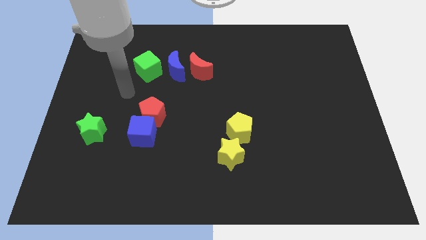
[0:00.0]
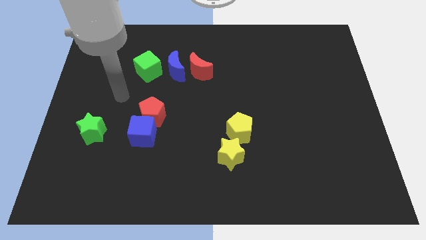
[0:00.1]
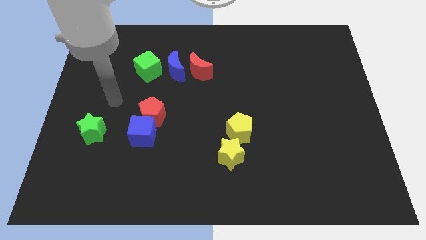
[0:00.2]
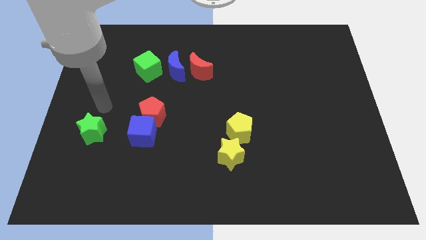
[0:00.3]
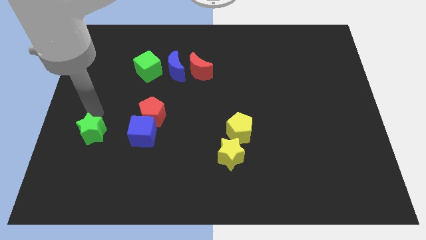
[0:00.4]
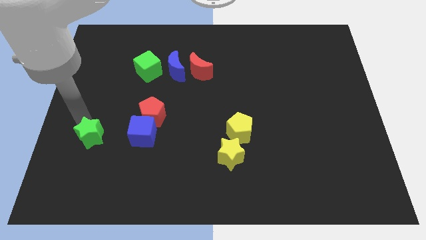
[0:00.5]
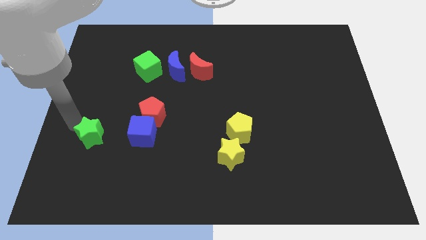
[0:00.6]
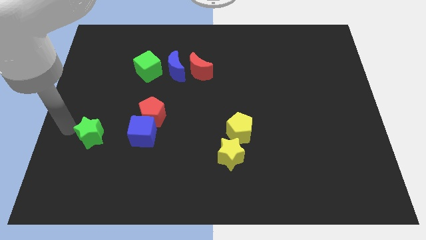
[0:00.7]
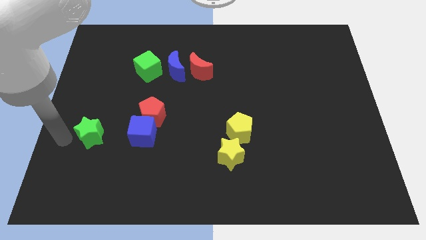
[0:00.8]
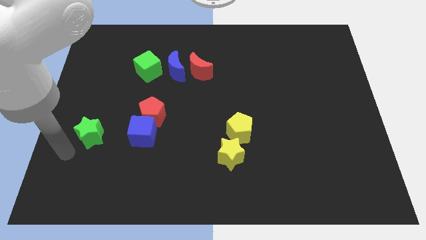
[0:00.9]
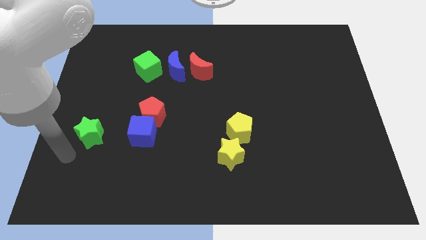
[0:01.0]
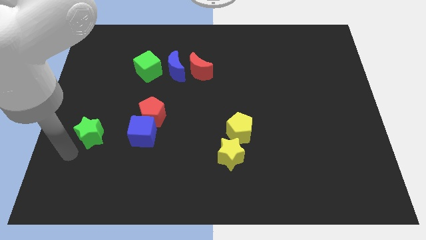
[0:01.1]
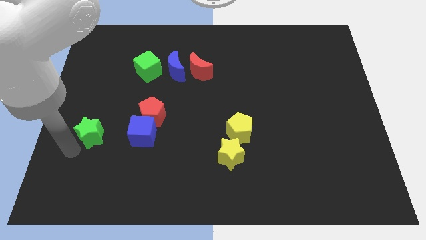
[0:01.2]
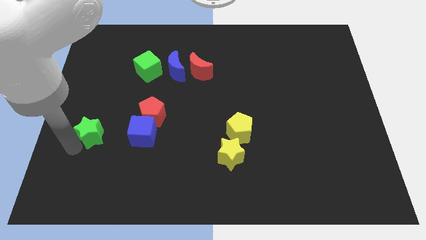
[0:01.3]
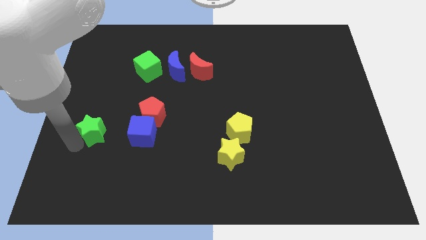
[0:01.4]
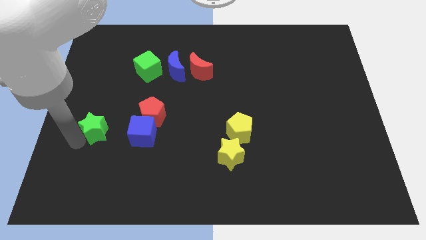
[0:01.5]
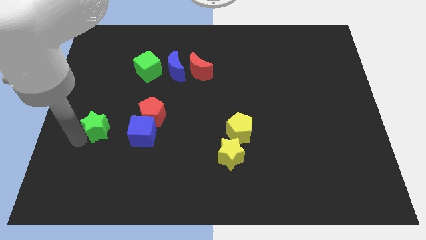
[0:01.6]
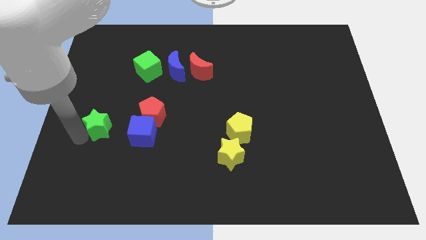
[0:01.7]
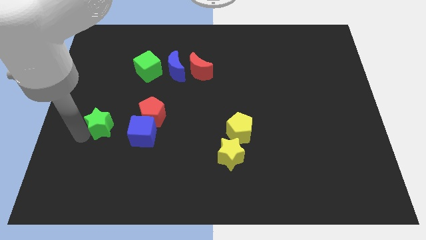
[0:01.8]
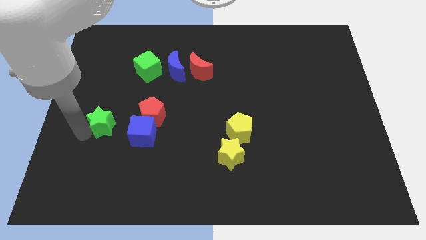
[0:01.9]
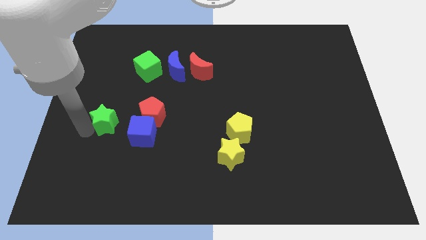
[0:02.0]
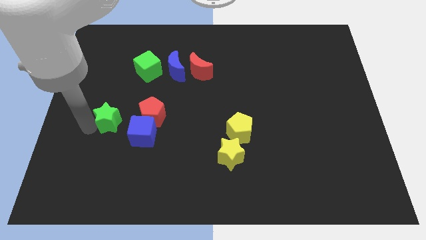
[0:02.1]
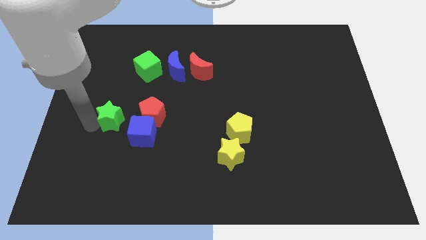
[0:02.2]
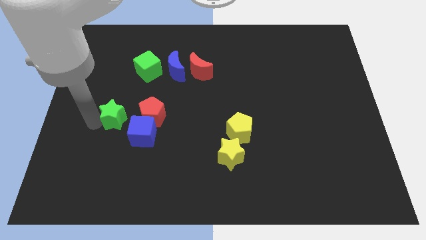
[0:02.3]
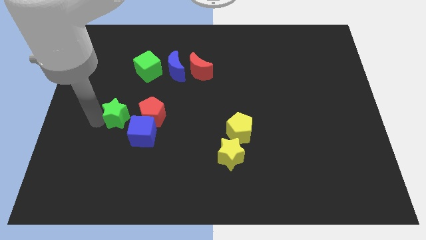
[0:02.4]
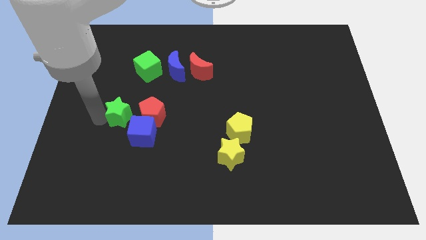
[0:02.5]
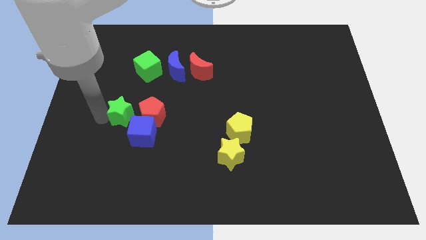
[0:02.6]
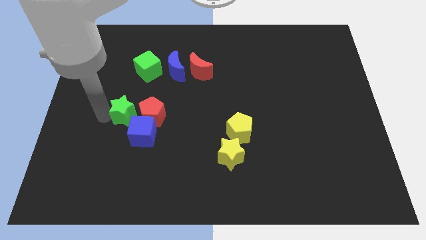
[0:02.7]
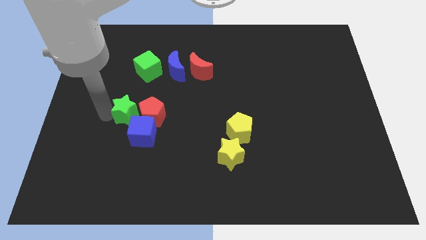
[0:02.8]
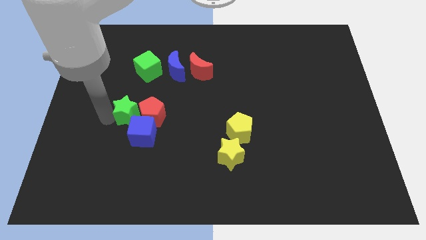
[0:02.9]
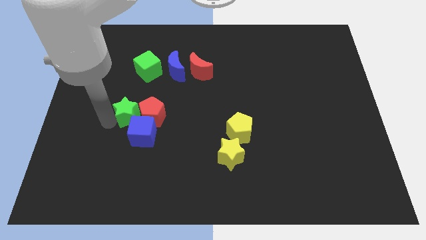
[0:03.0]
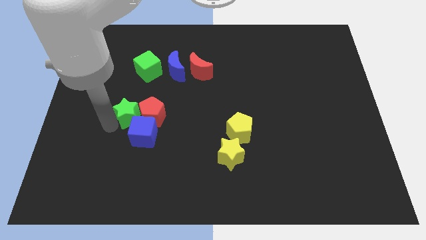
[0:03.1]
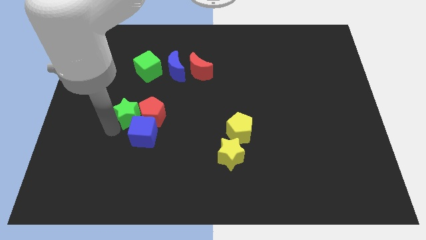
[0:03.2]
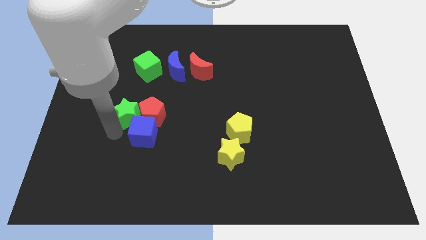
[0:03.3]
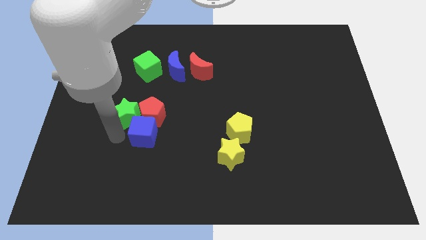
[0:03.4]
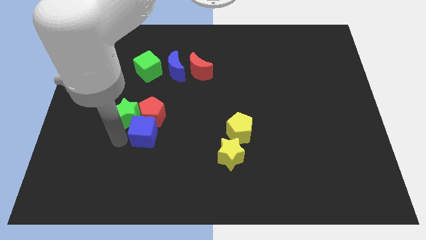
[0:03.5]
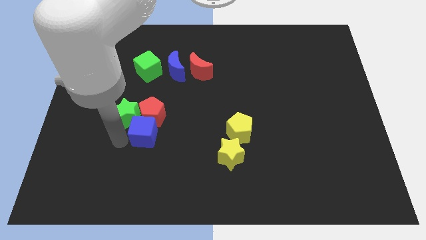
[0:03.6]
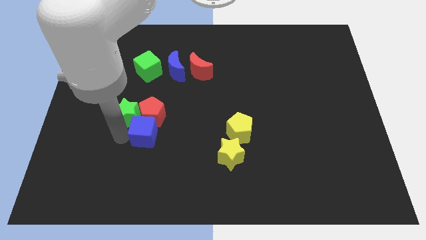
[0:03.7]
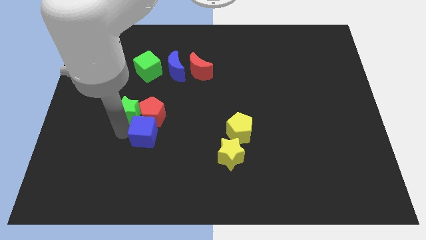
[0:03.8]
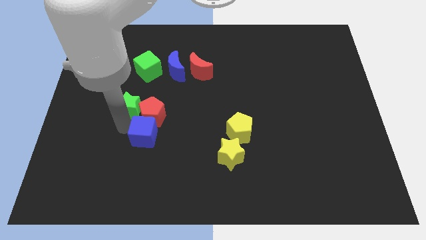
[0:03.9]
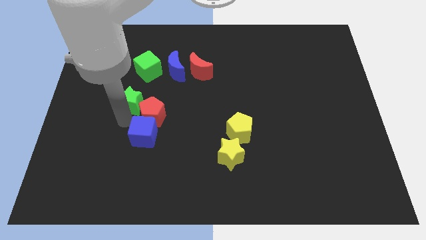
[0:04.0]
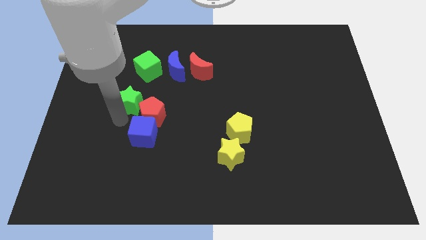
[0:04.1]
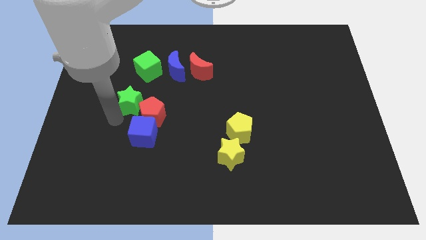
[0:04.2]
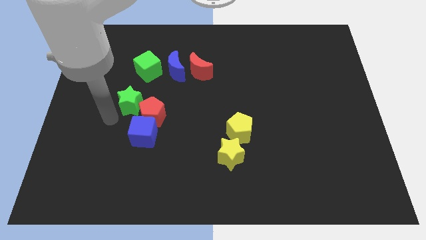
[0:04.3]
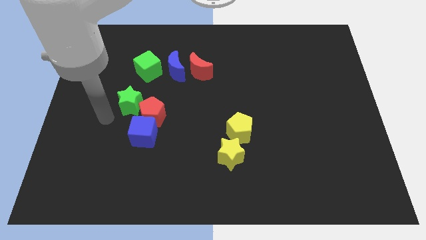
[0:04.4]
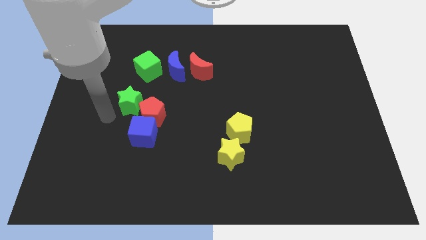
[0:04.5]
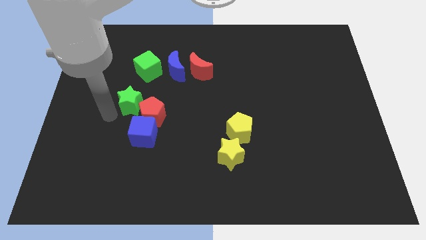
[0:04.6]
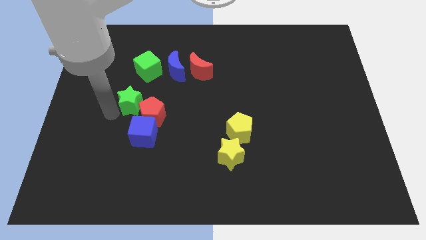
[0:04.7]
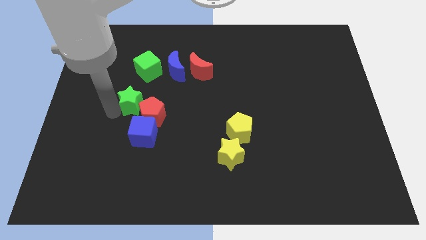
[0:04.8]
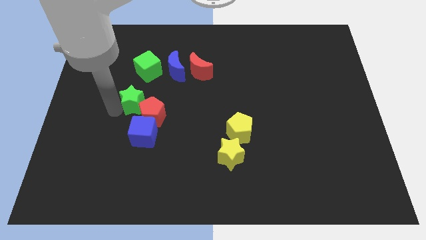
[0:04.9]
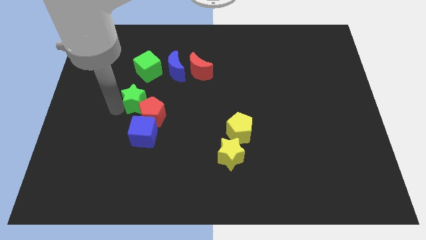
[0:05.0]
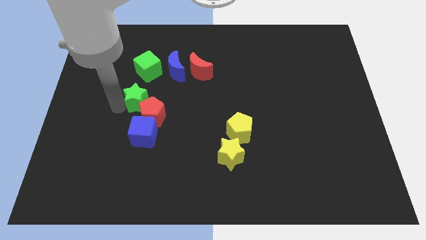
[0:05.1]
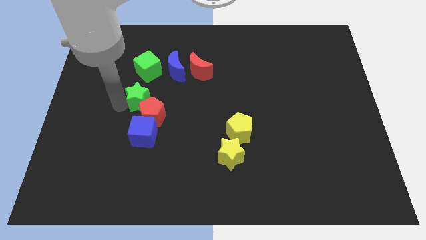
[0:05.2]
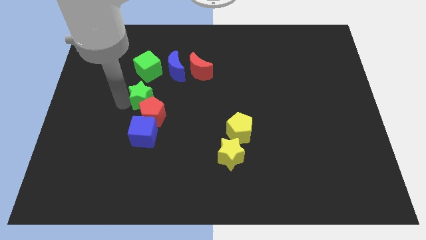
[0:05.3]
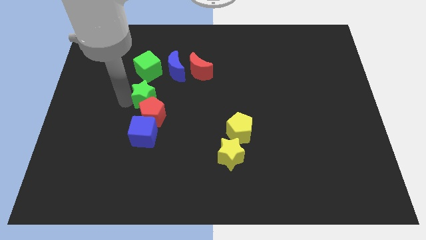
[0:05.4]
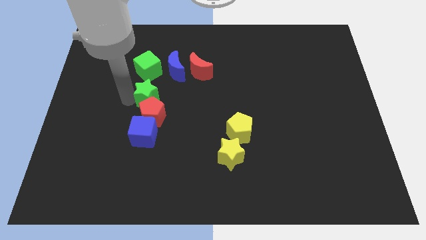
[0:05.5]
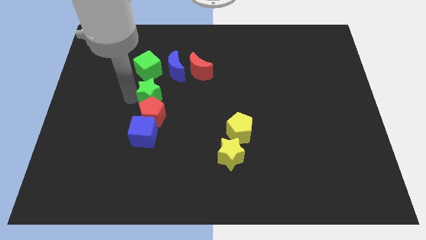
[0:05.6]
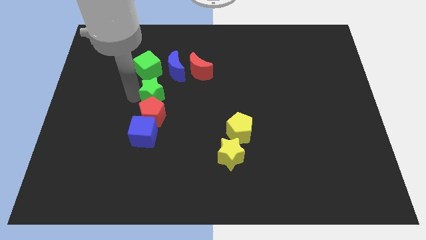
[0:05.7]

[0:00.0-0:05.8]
put the green star diagonally down and to the right of the green cube

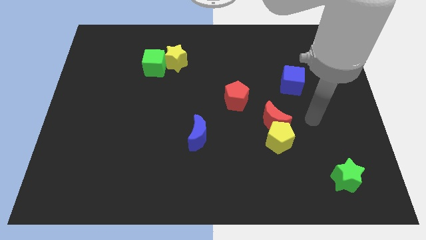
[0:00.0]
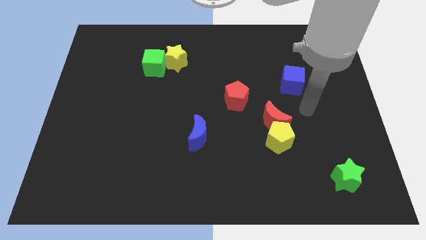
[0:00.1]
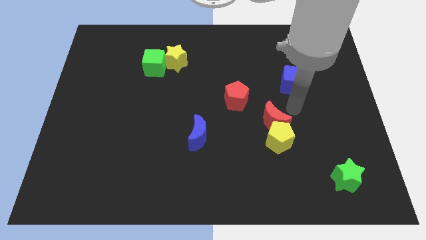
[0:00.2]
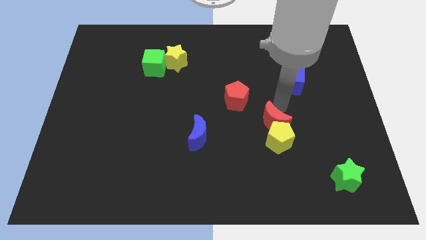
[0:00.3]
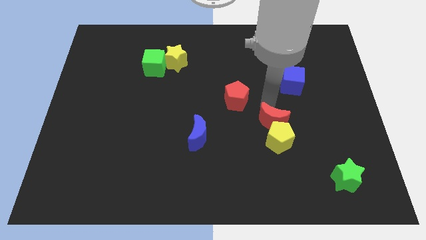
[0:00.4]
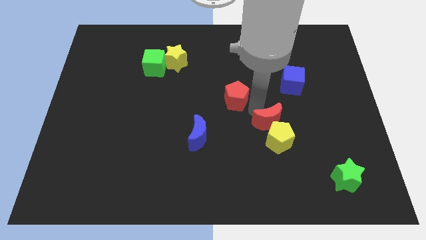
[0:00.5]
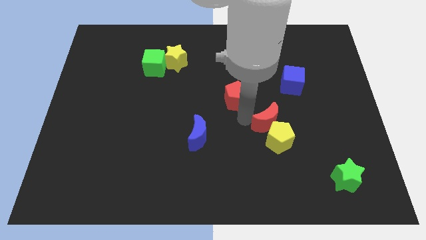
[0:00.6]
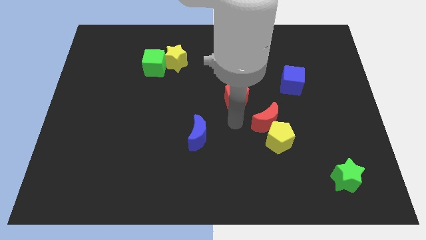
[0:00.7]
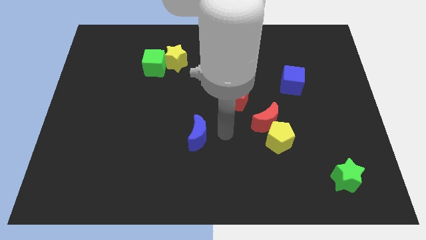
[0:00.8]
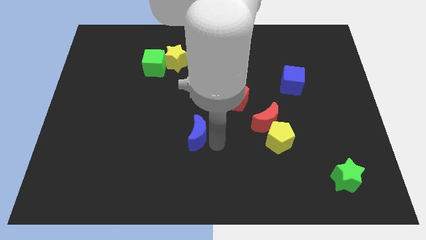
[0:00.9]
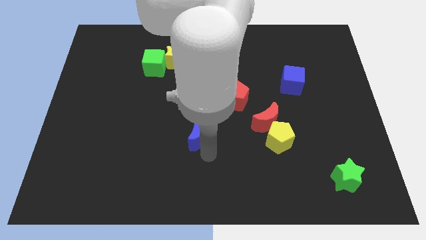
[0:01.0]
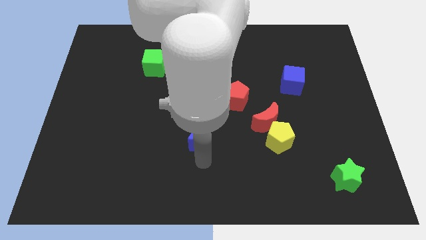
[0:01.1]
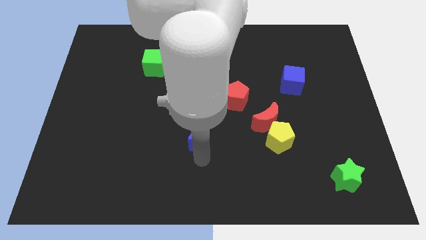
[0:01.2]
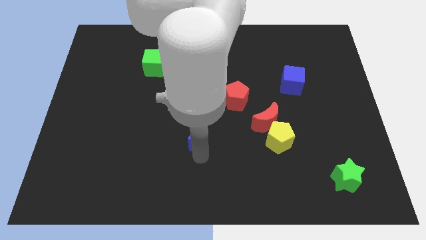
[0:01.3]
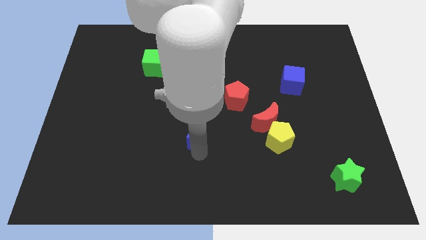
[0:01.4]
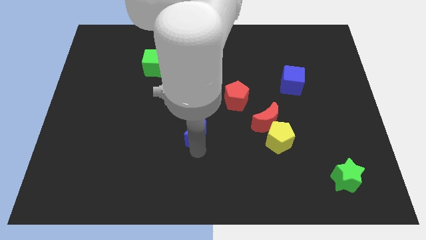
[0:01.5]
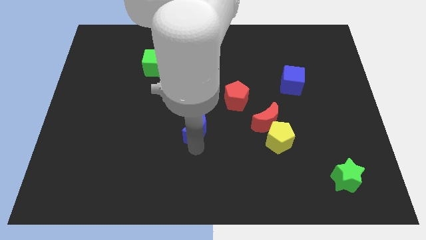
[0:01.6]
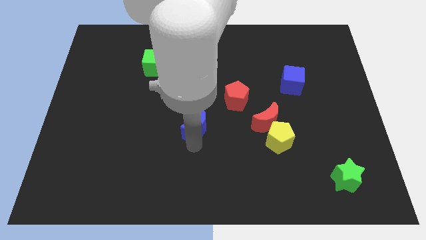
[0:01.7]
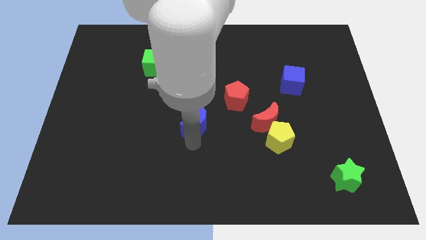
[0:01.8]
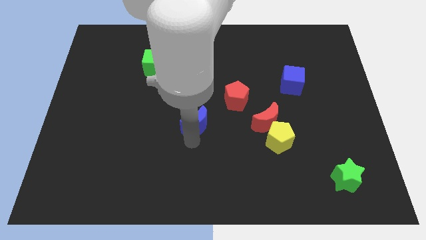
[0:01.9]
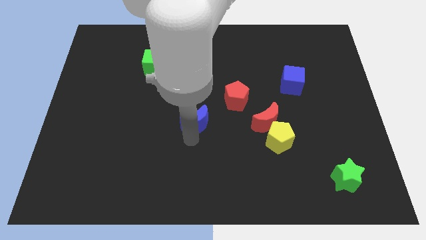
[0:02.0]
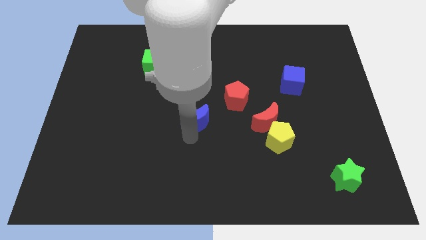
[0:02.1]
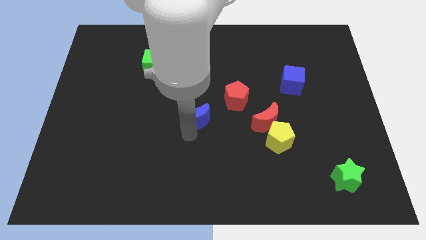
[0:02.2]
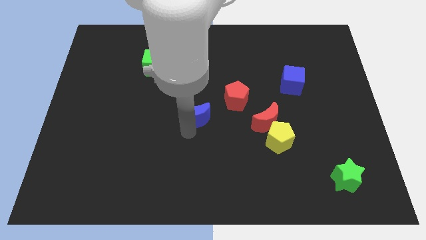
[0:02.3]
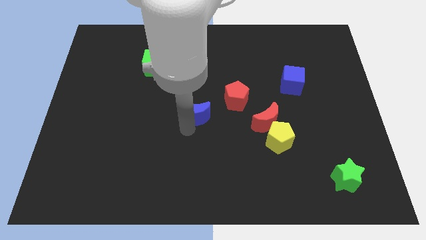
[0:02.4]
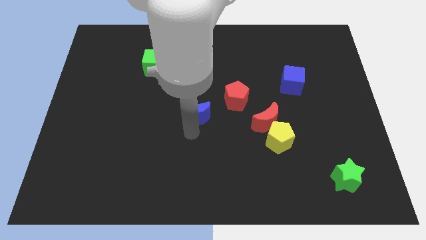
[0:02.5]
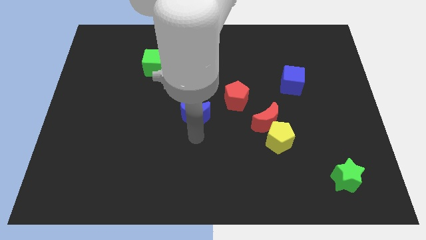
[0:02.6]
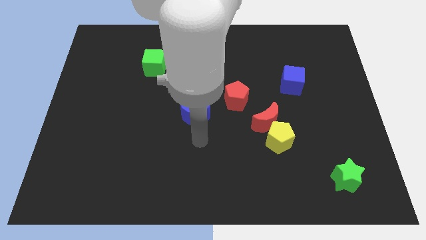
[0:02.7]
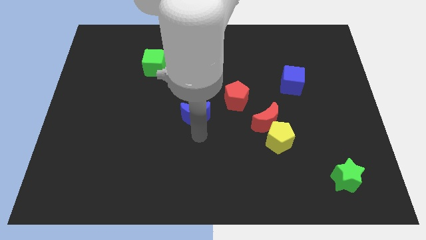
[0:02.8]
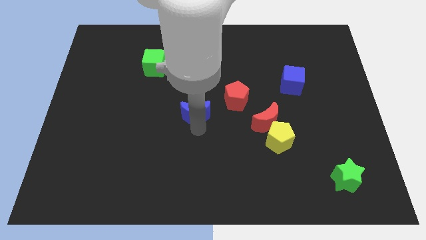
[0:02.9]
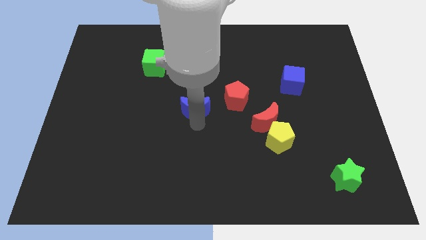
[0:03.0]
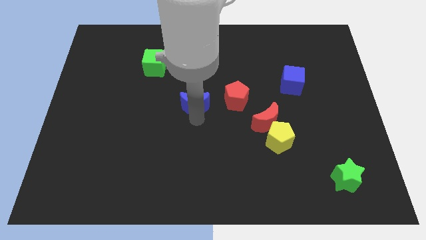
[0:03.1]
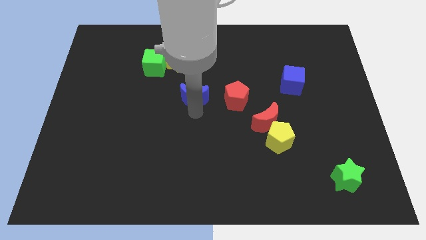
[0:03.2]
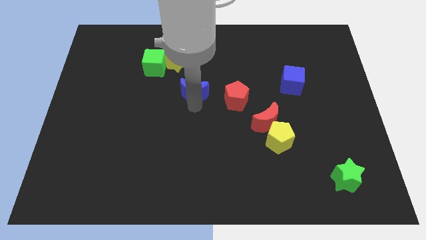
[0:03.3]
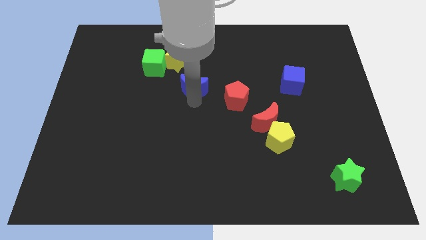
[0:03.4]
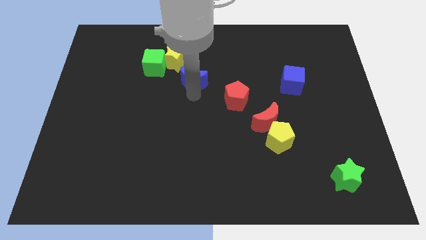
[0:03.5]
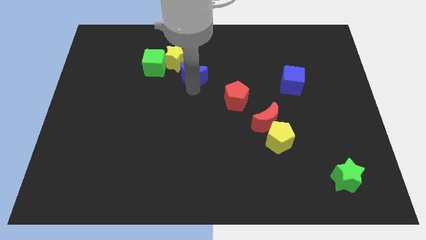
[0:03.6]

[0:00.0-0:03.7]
push the blue moon to the right of the green cube
